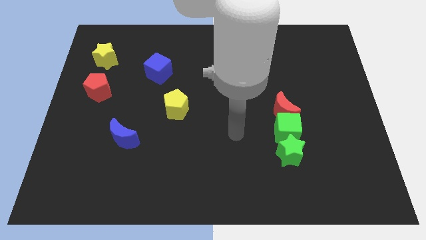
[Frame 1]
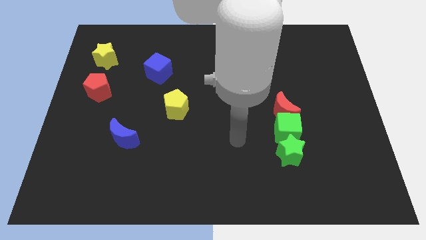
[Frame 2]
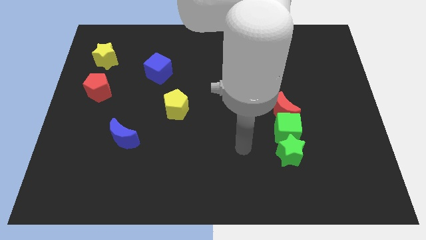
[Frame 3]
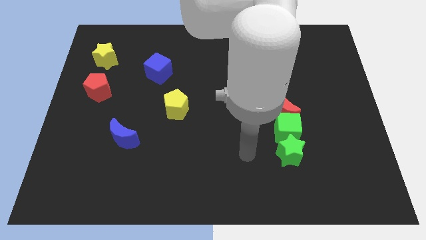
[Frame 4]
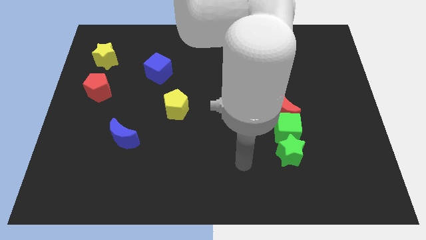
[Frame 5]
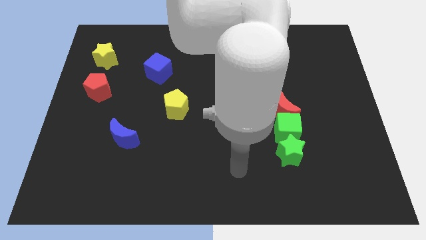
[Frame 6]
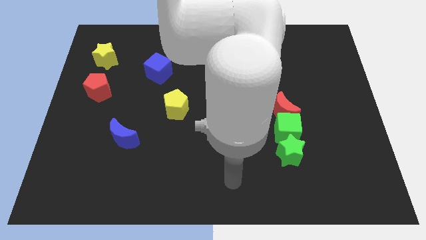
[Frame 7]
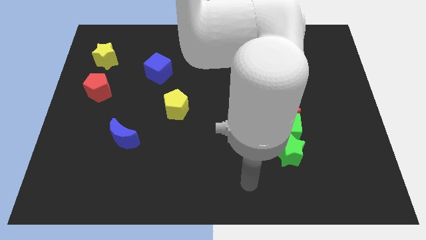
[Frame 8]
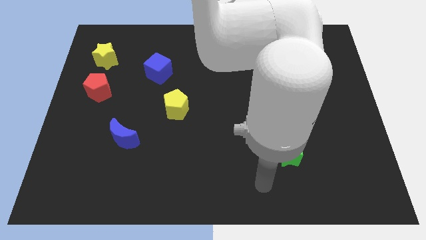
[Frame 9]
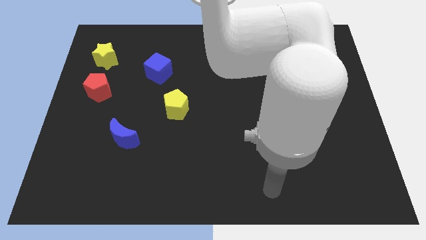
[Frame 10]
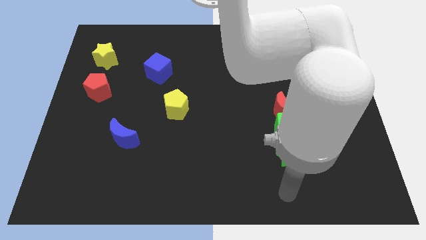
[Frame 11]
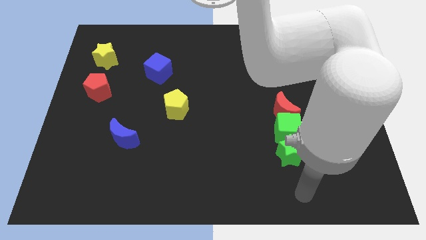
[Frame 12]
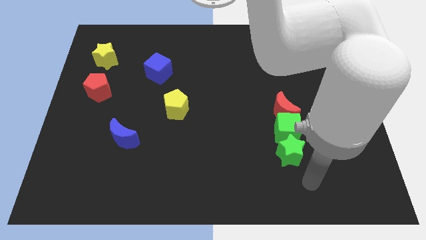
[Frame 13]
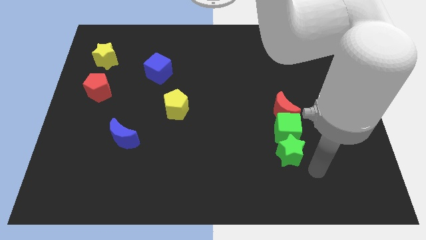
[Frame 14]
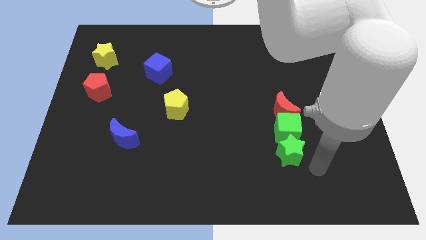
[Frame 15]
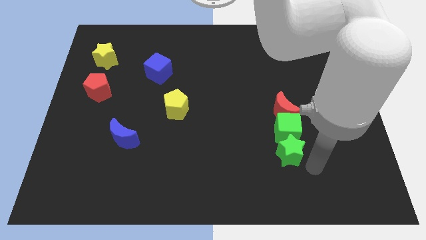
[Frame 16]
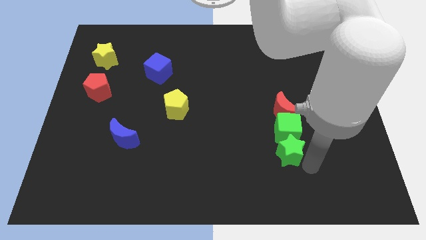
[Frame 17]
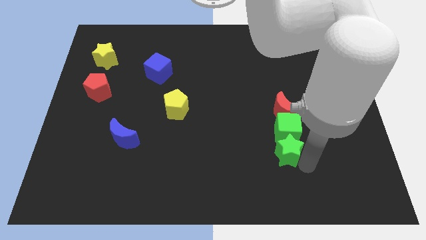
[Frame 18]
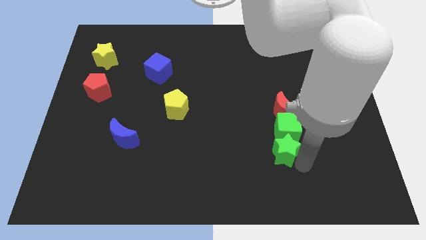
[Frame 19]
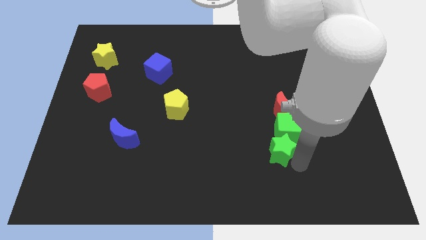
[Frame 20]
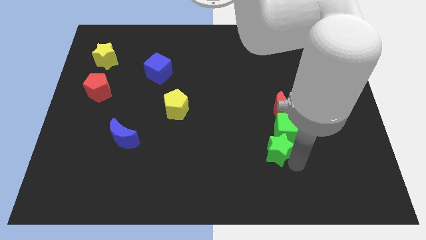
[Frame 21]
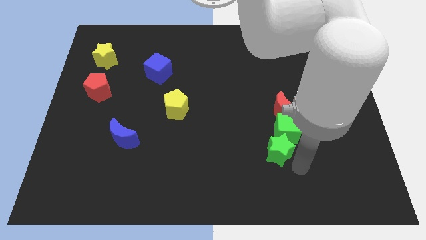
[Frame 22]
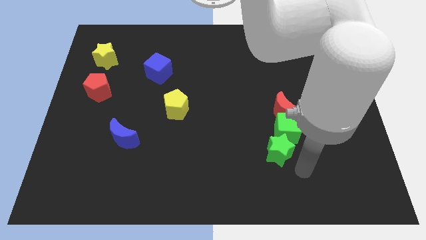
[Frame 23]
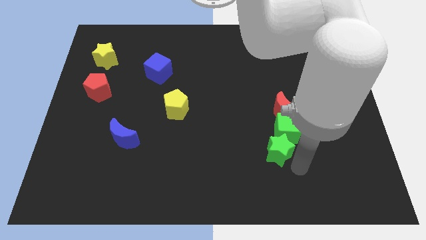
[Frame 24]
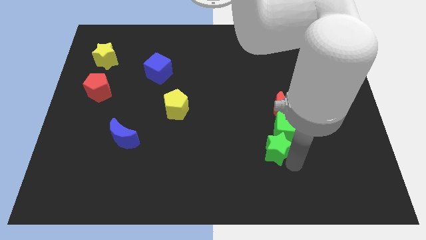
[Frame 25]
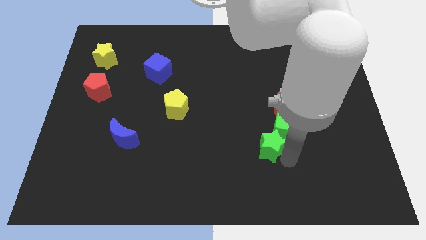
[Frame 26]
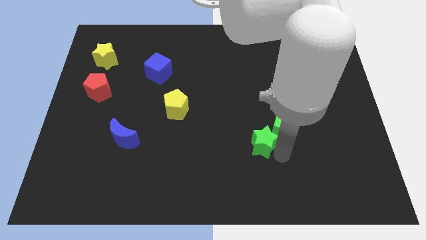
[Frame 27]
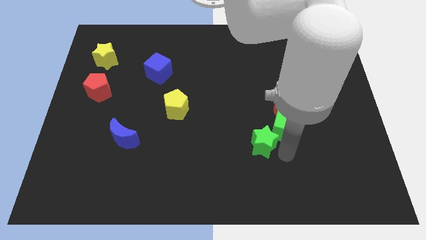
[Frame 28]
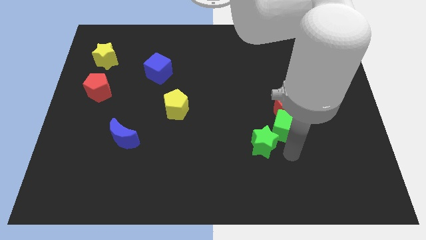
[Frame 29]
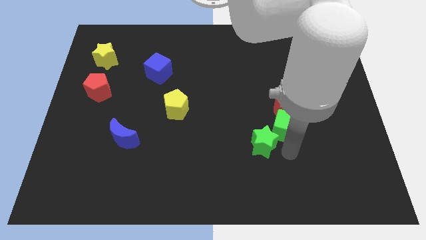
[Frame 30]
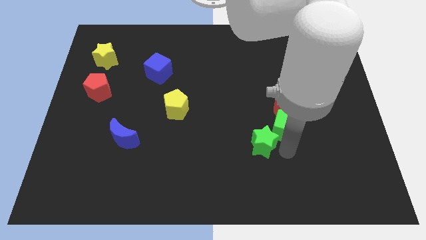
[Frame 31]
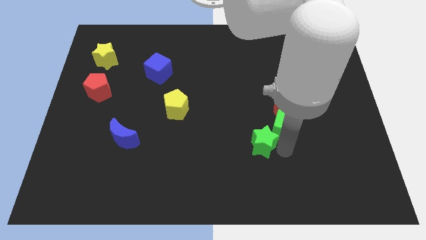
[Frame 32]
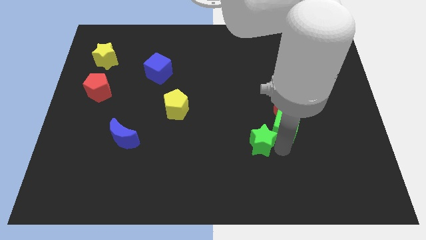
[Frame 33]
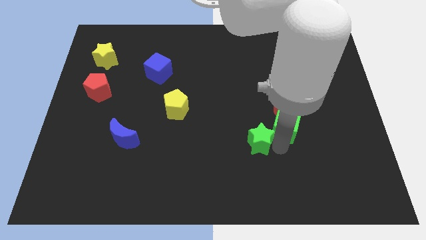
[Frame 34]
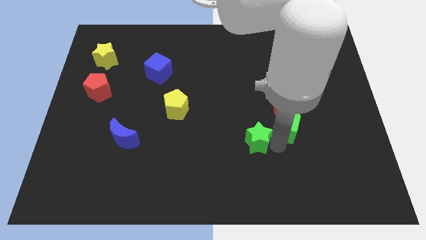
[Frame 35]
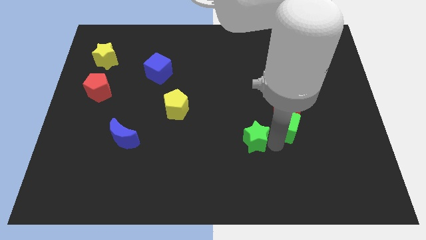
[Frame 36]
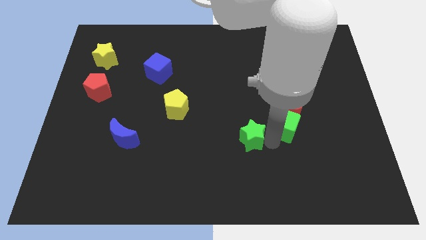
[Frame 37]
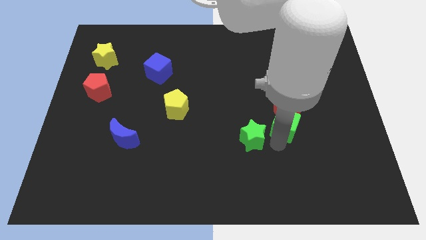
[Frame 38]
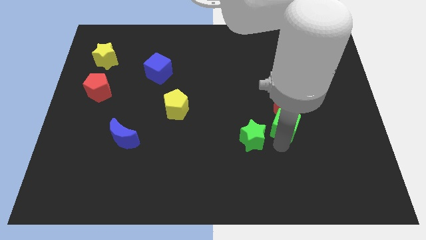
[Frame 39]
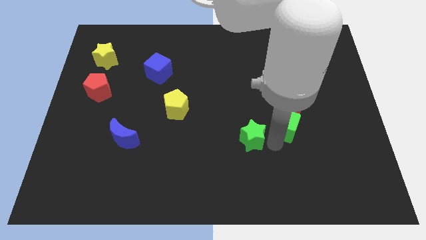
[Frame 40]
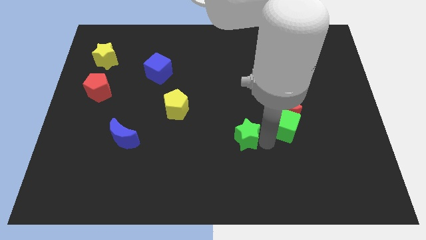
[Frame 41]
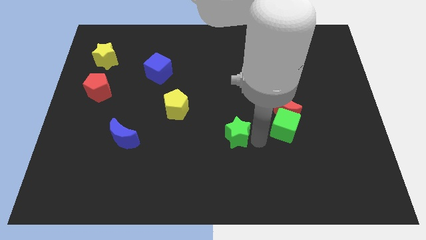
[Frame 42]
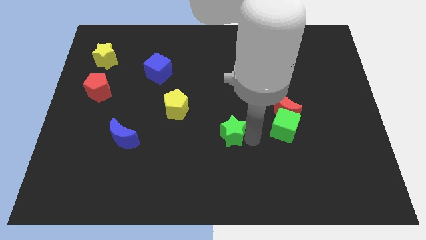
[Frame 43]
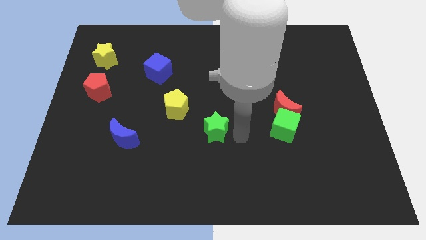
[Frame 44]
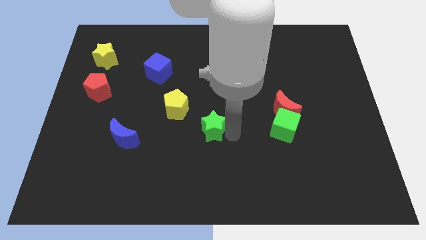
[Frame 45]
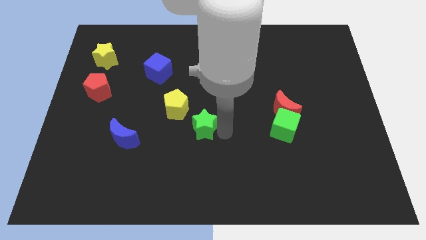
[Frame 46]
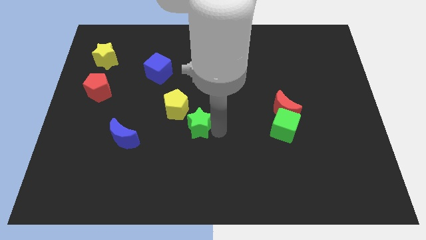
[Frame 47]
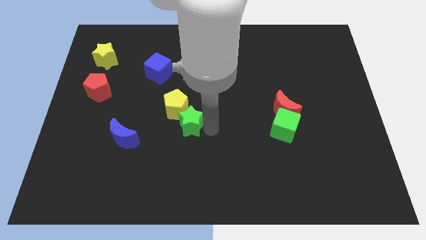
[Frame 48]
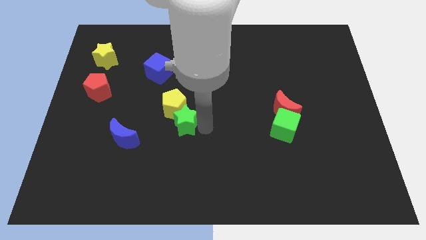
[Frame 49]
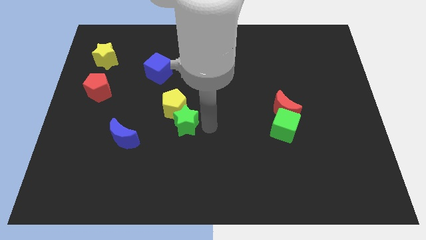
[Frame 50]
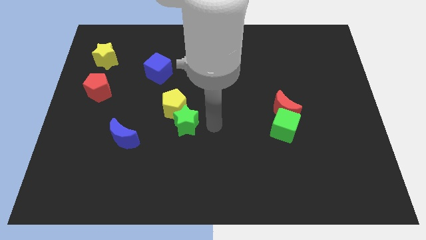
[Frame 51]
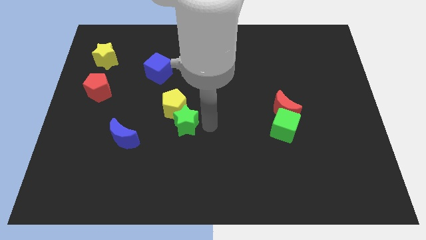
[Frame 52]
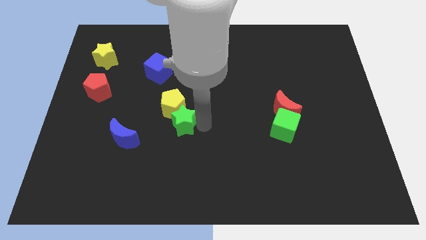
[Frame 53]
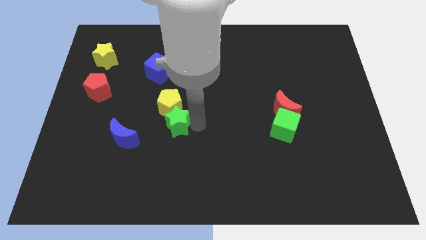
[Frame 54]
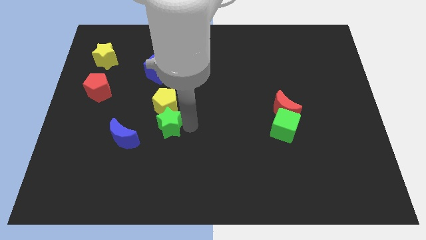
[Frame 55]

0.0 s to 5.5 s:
put the green star diagonally up and to the right of the blue moon
